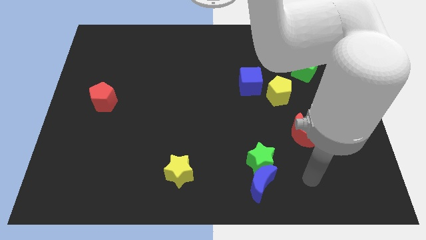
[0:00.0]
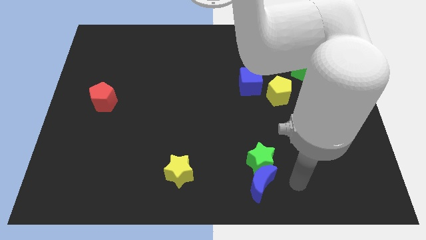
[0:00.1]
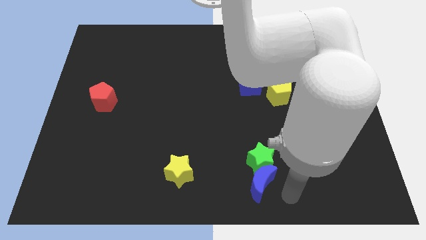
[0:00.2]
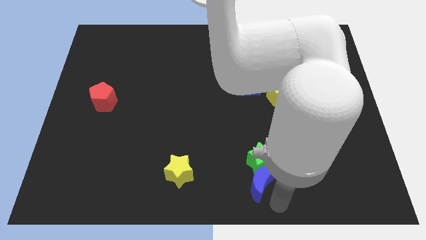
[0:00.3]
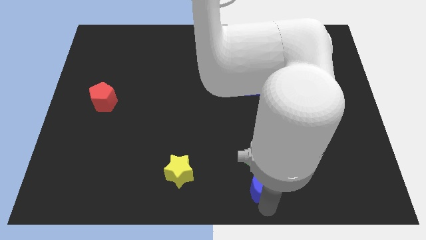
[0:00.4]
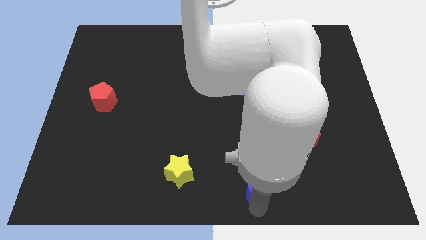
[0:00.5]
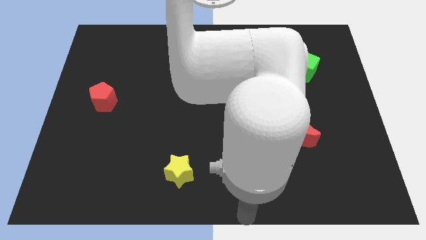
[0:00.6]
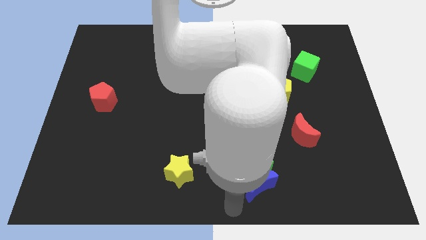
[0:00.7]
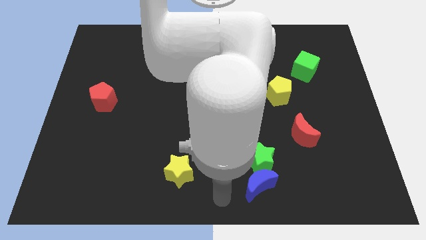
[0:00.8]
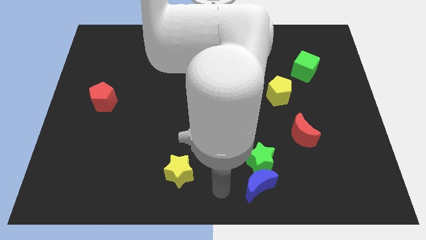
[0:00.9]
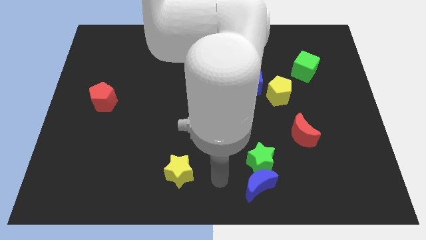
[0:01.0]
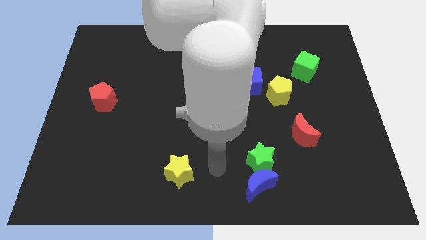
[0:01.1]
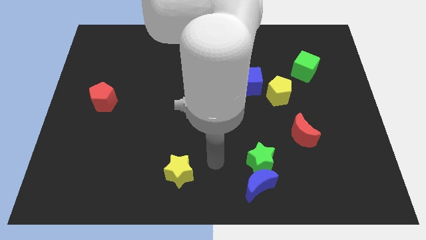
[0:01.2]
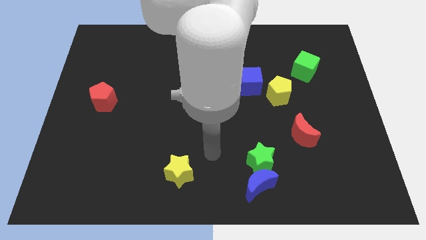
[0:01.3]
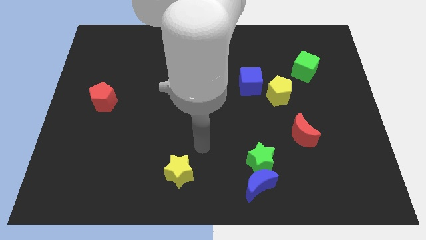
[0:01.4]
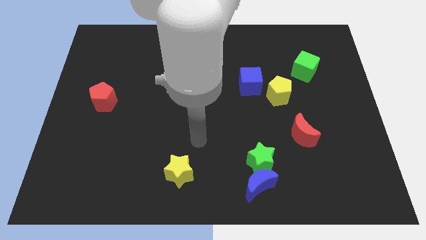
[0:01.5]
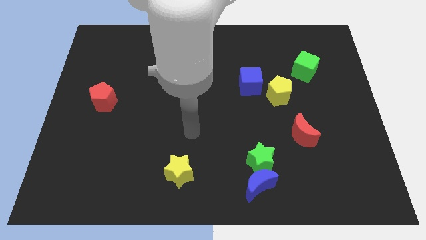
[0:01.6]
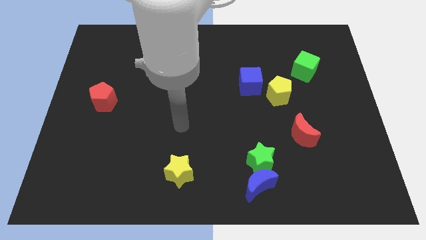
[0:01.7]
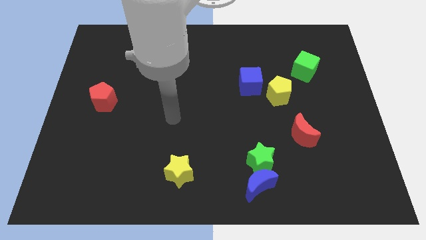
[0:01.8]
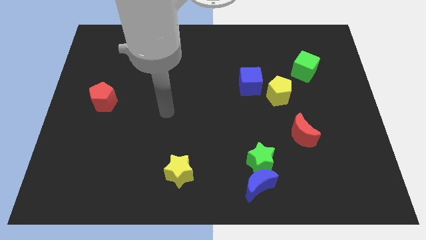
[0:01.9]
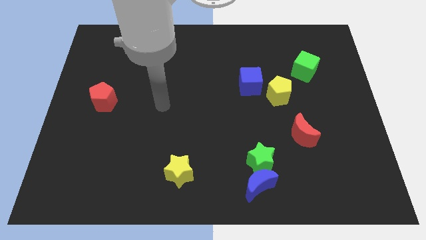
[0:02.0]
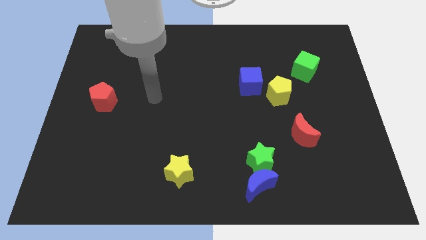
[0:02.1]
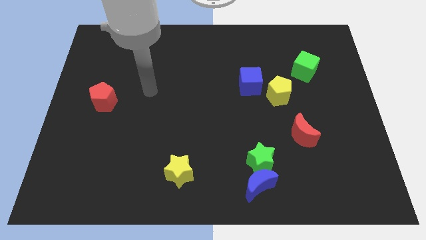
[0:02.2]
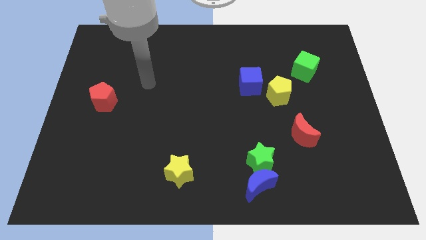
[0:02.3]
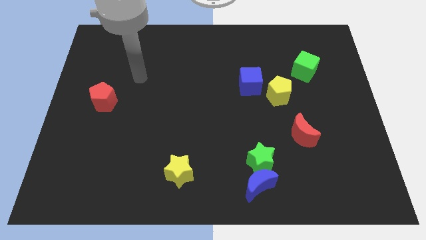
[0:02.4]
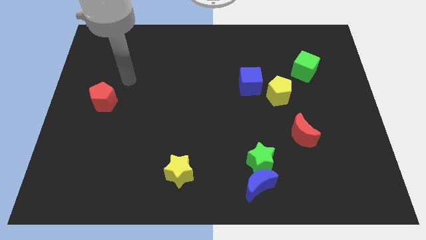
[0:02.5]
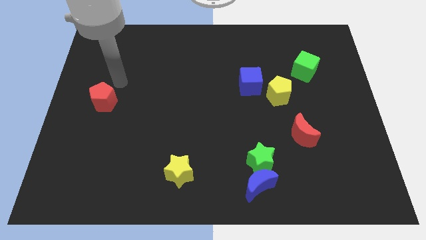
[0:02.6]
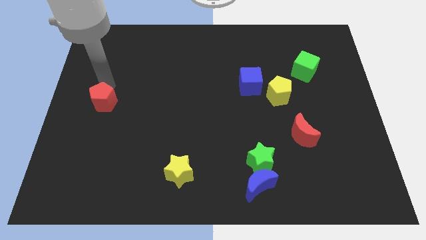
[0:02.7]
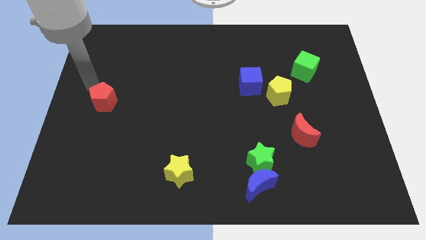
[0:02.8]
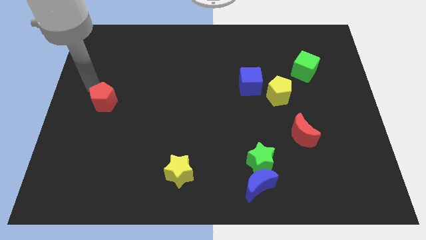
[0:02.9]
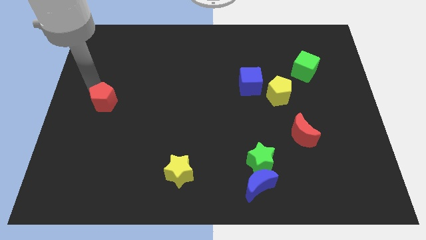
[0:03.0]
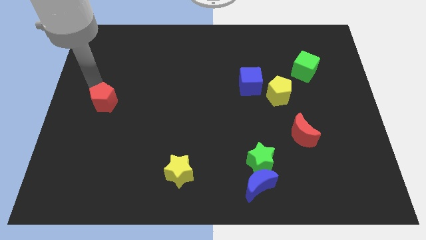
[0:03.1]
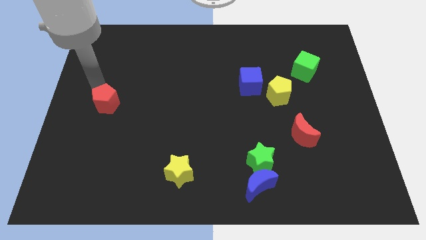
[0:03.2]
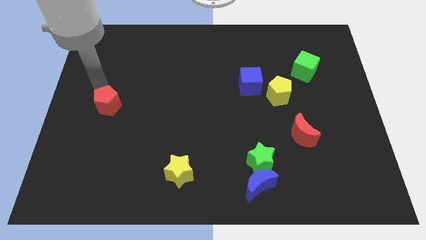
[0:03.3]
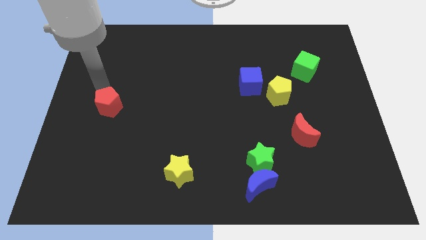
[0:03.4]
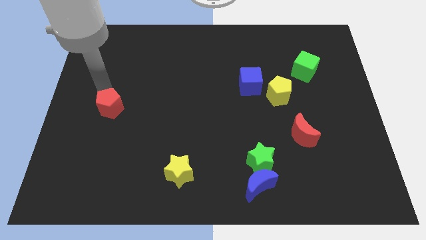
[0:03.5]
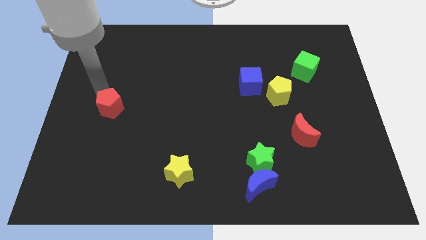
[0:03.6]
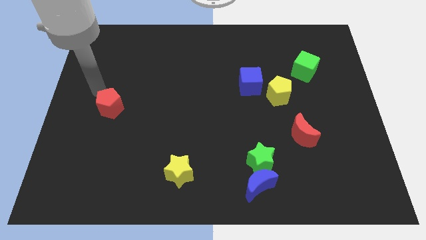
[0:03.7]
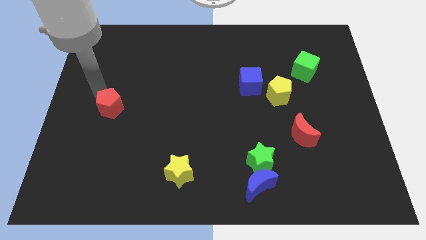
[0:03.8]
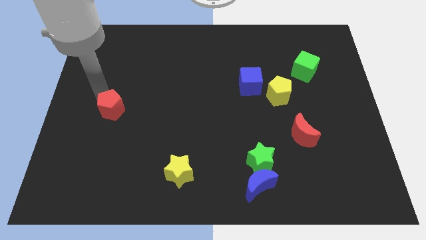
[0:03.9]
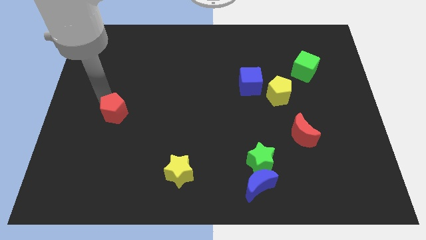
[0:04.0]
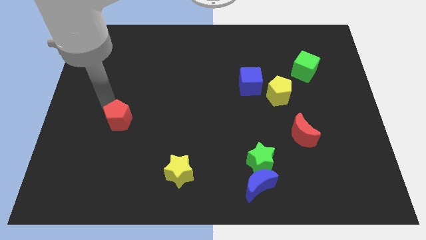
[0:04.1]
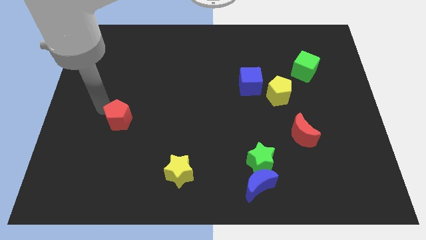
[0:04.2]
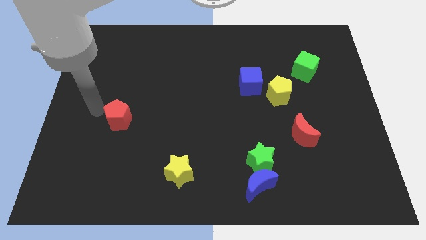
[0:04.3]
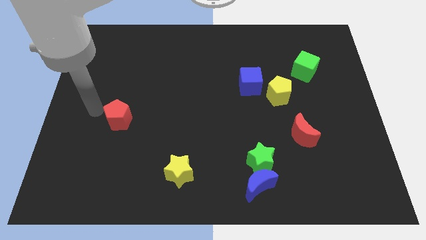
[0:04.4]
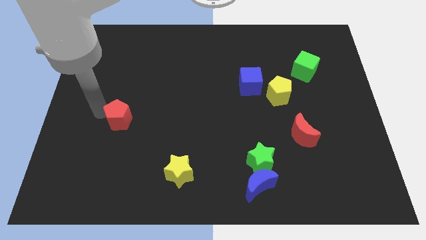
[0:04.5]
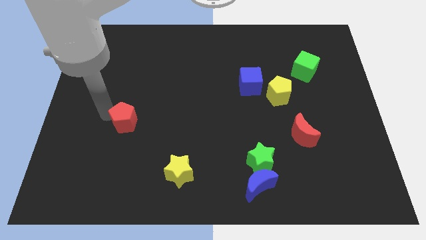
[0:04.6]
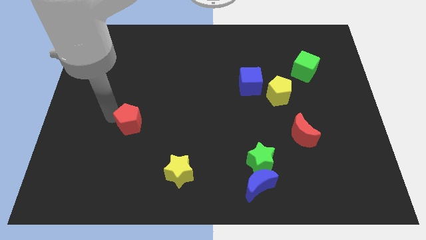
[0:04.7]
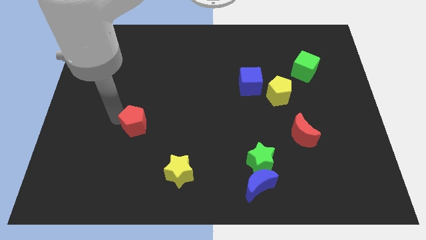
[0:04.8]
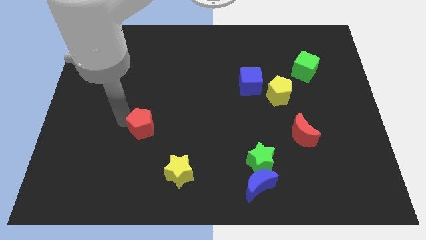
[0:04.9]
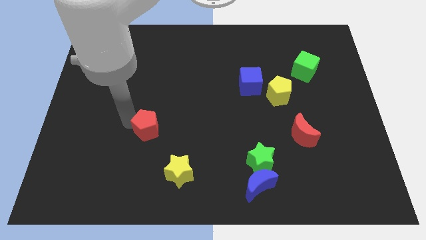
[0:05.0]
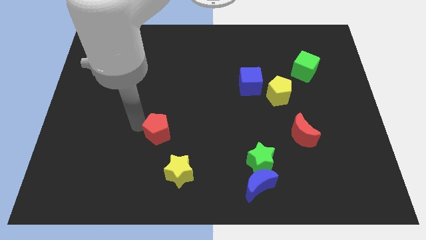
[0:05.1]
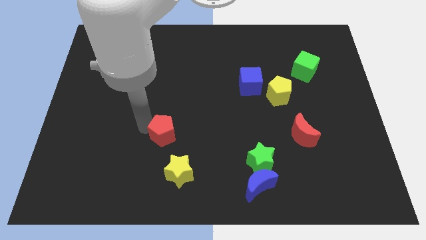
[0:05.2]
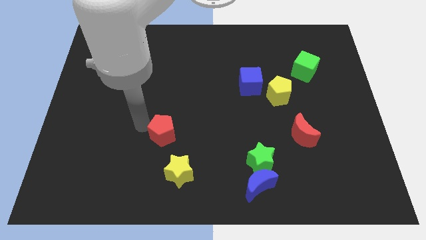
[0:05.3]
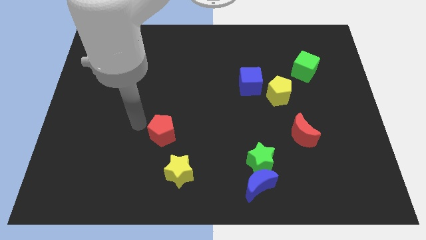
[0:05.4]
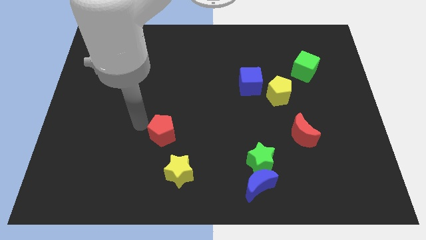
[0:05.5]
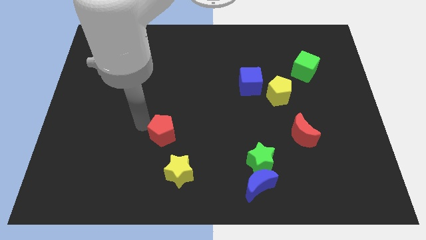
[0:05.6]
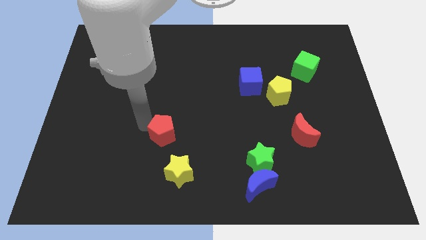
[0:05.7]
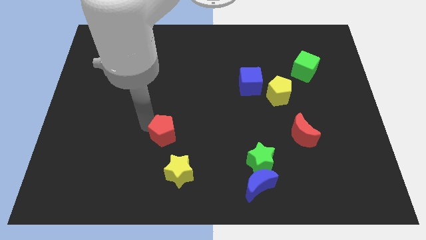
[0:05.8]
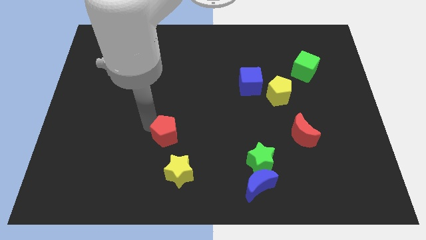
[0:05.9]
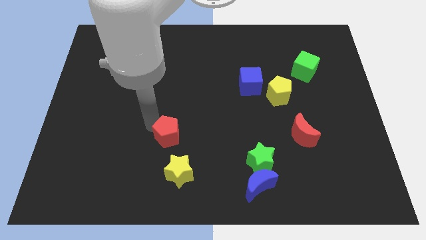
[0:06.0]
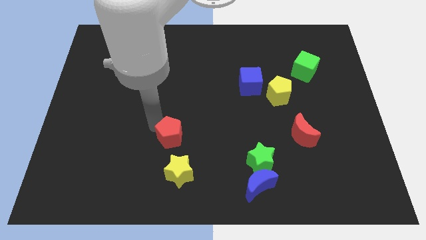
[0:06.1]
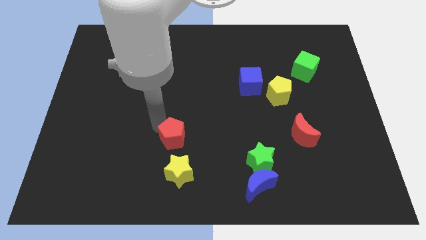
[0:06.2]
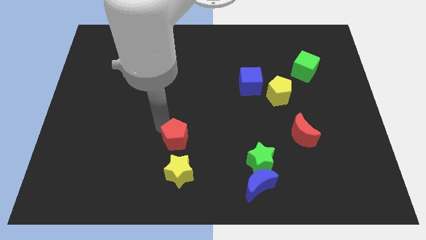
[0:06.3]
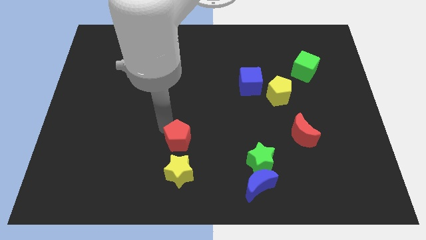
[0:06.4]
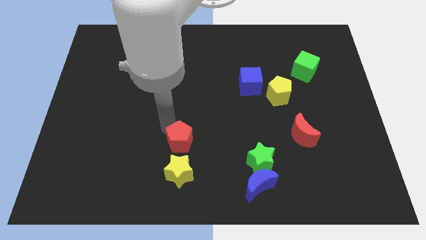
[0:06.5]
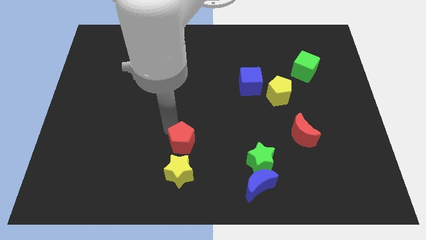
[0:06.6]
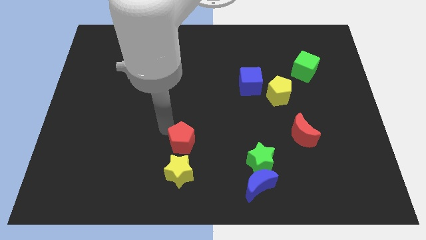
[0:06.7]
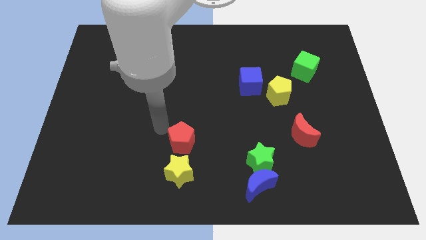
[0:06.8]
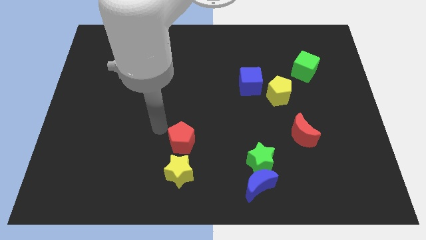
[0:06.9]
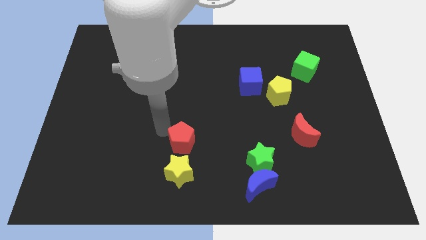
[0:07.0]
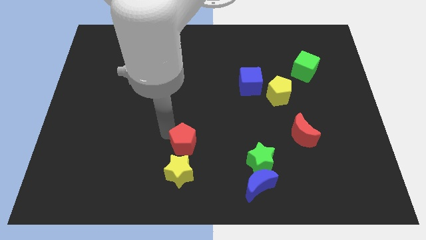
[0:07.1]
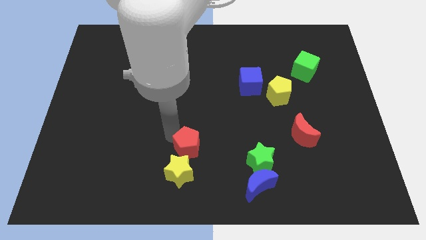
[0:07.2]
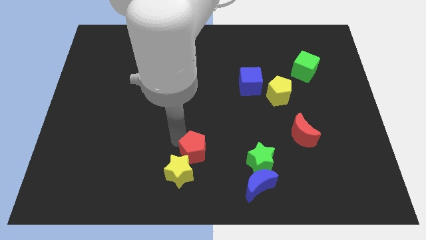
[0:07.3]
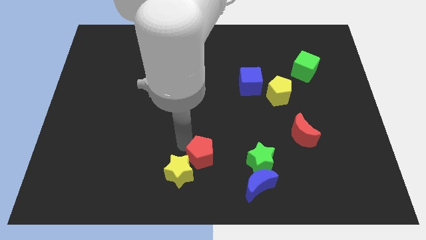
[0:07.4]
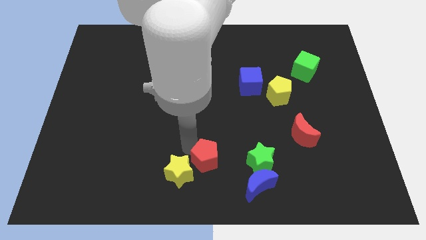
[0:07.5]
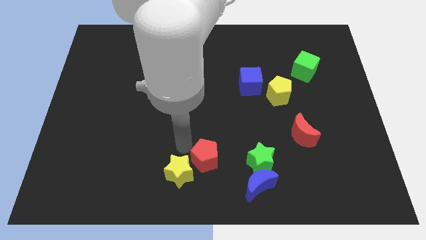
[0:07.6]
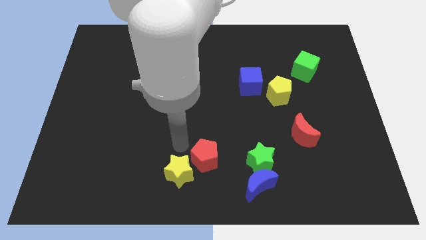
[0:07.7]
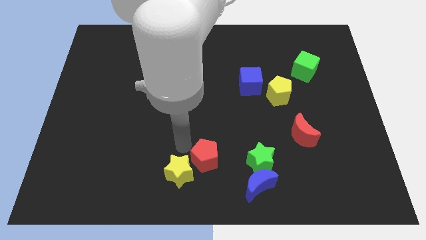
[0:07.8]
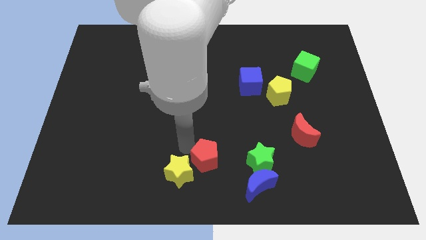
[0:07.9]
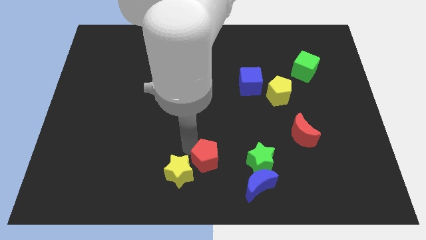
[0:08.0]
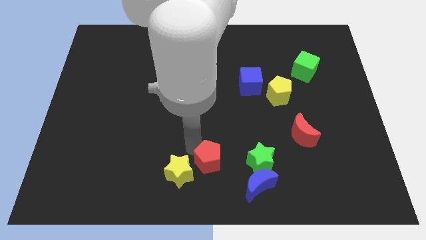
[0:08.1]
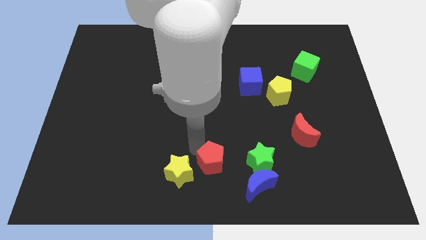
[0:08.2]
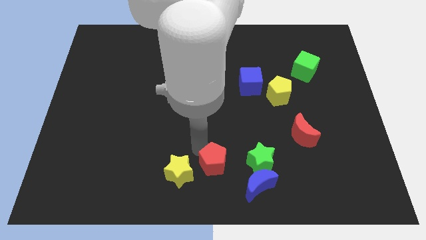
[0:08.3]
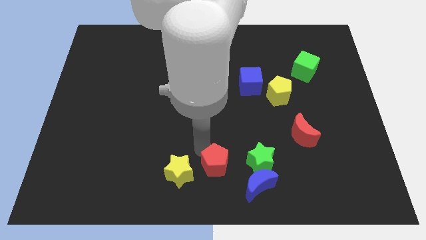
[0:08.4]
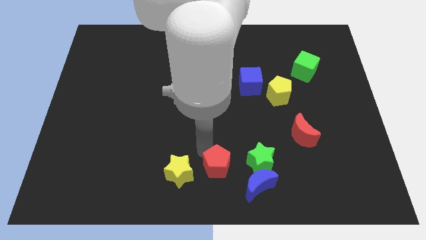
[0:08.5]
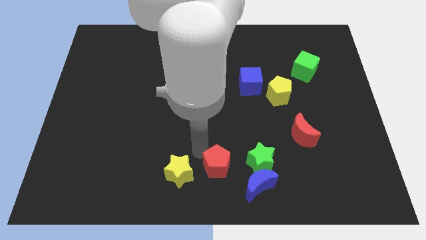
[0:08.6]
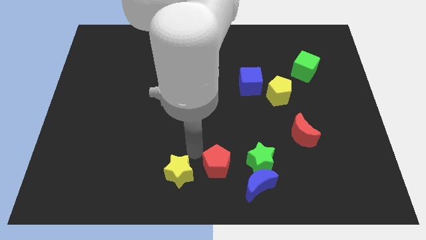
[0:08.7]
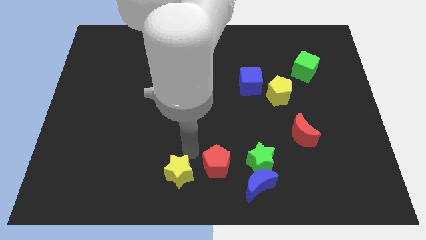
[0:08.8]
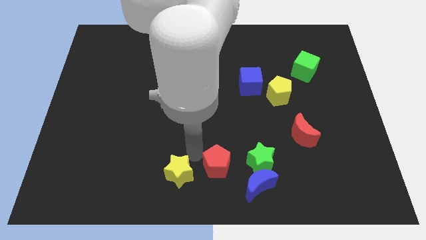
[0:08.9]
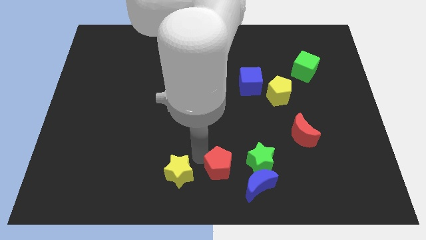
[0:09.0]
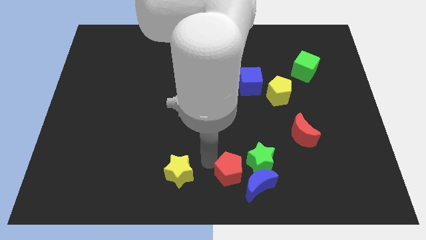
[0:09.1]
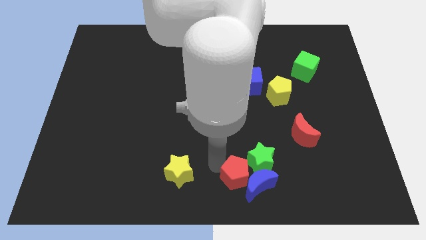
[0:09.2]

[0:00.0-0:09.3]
push the red pentagon next to the blue moon
